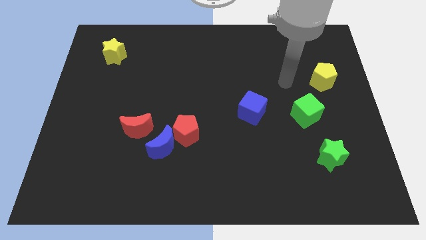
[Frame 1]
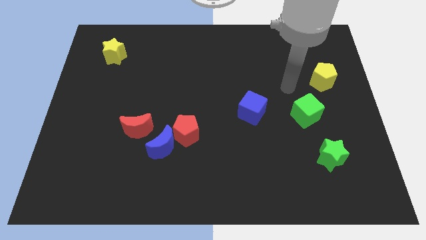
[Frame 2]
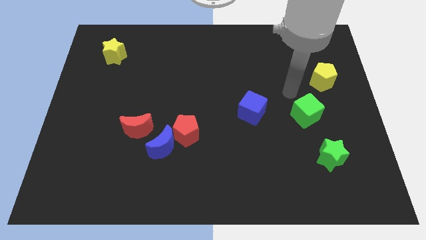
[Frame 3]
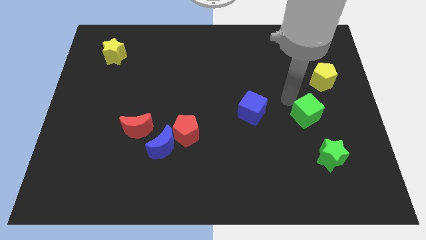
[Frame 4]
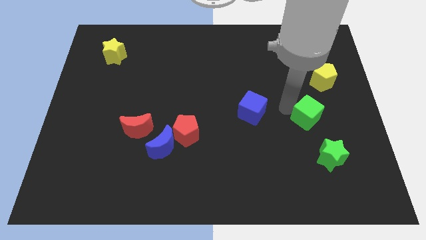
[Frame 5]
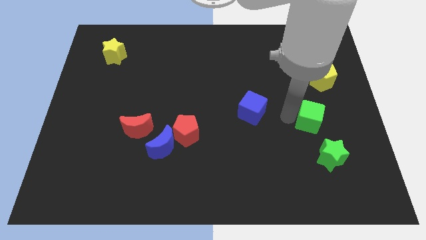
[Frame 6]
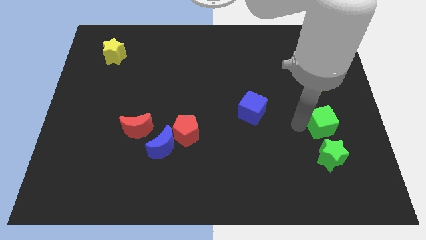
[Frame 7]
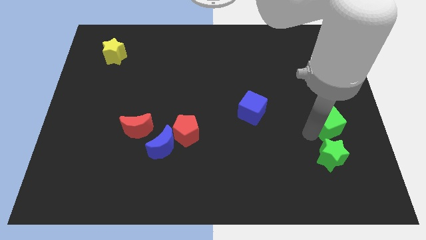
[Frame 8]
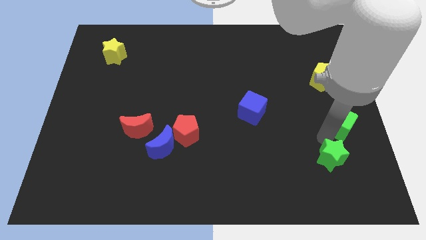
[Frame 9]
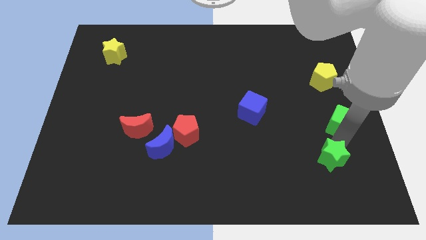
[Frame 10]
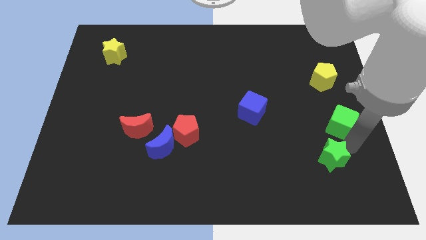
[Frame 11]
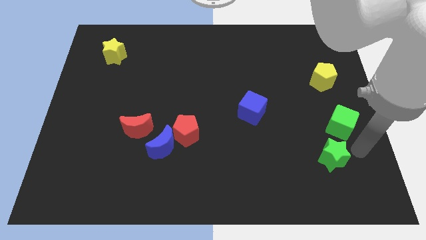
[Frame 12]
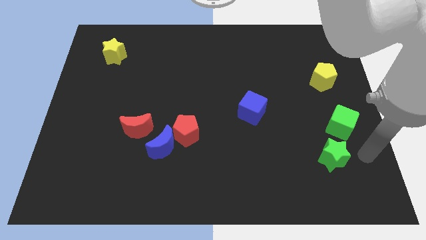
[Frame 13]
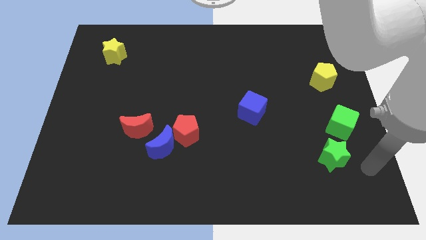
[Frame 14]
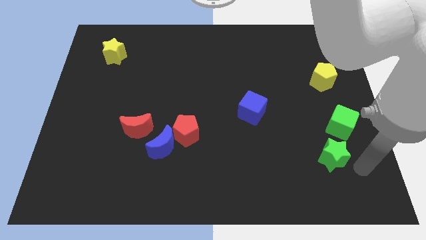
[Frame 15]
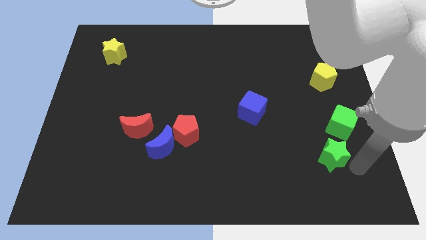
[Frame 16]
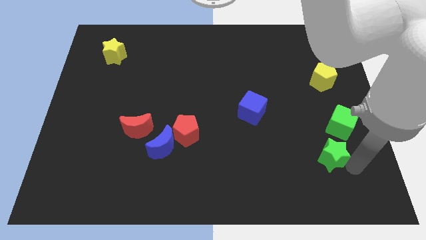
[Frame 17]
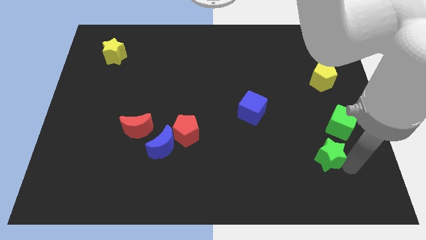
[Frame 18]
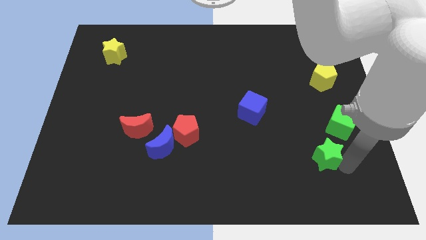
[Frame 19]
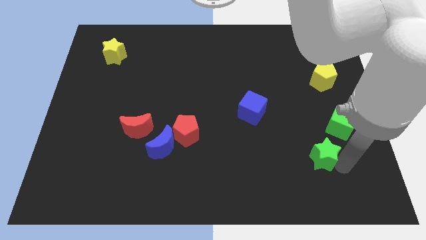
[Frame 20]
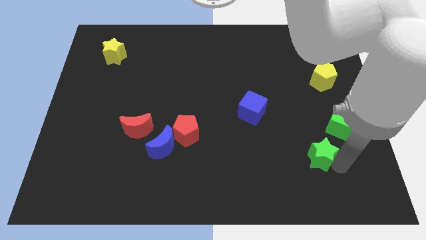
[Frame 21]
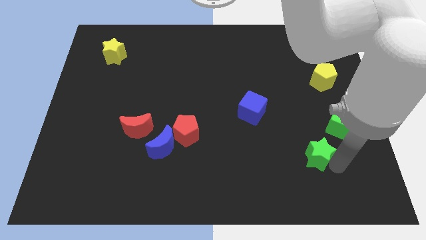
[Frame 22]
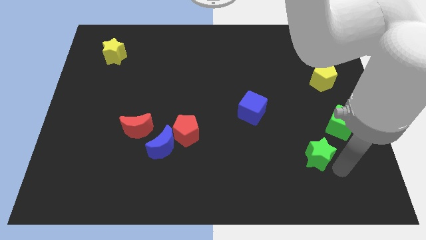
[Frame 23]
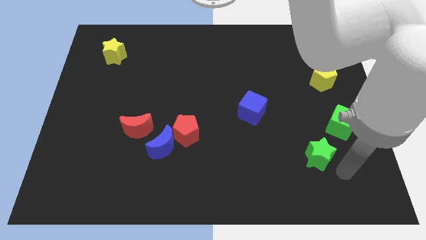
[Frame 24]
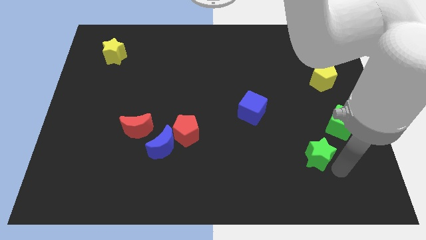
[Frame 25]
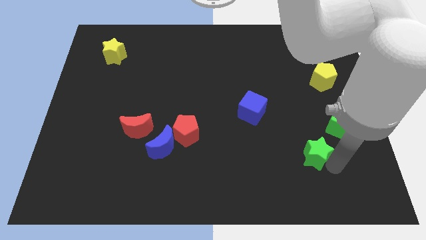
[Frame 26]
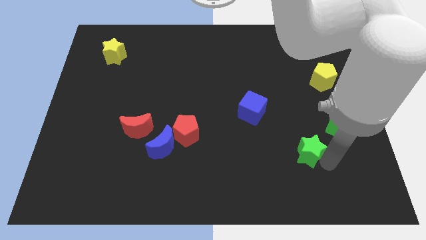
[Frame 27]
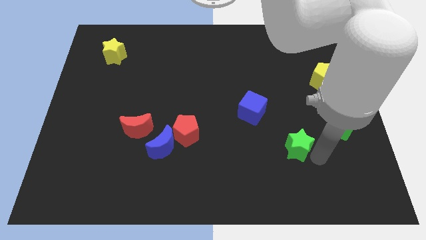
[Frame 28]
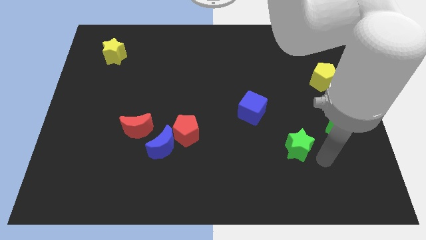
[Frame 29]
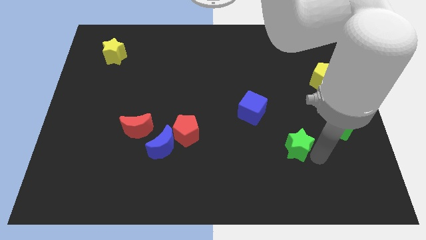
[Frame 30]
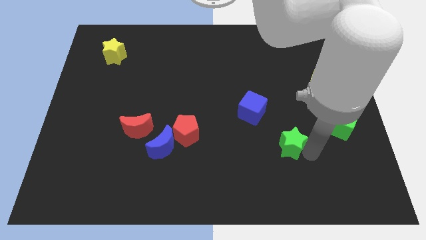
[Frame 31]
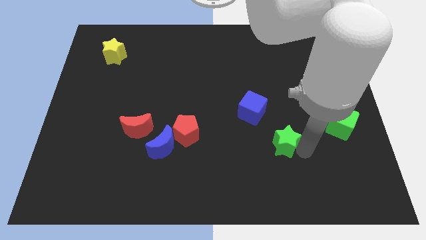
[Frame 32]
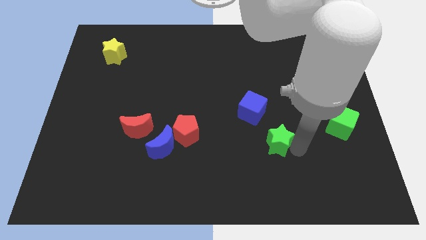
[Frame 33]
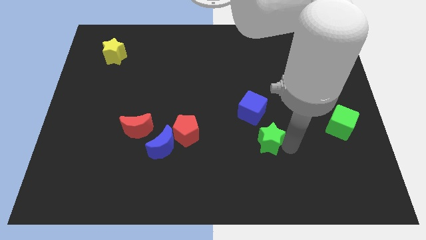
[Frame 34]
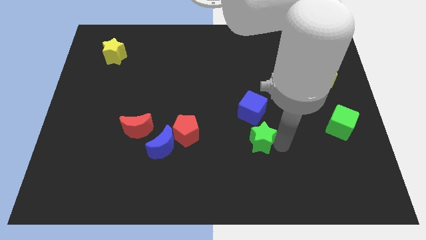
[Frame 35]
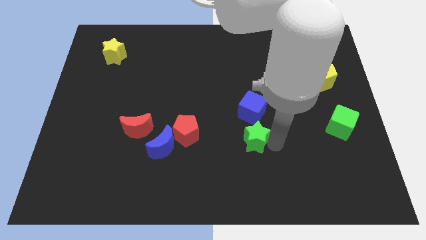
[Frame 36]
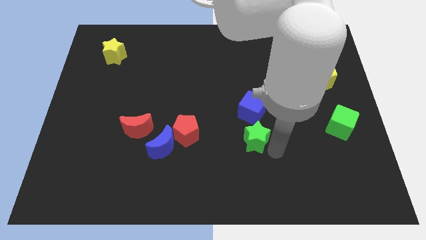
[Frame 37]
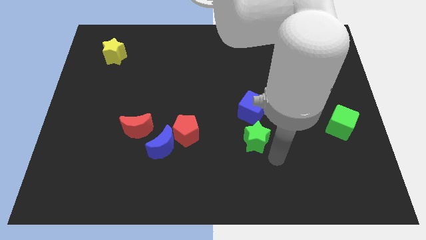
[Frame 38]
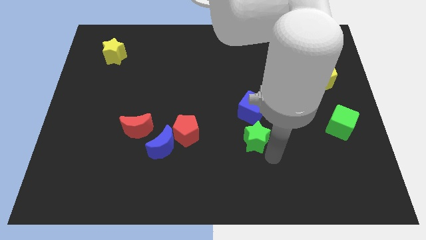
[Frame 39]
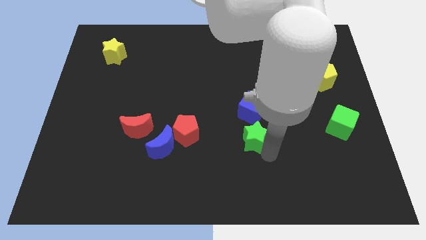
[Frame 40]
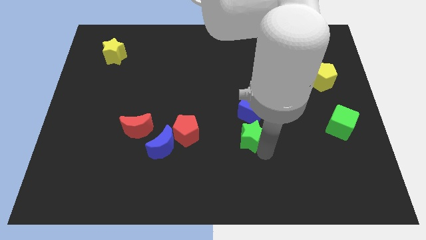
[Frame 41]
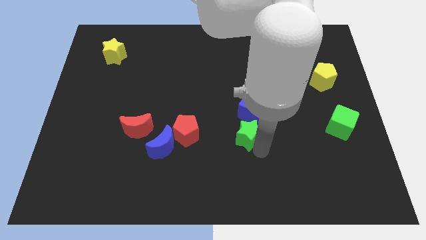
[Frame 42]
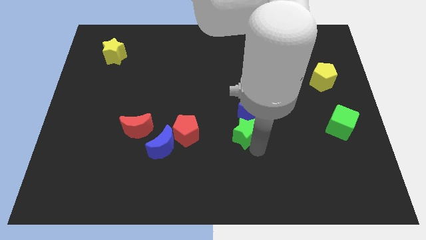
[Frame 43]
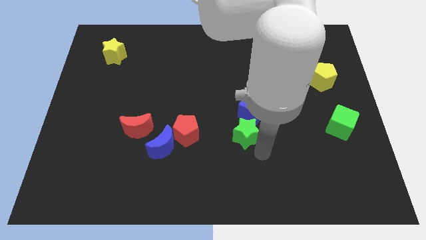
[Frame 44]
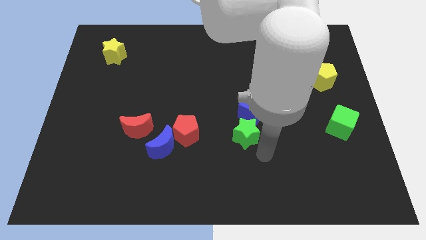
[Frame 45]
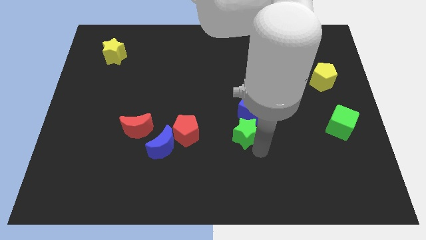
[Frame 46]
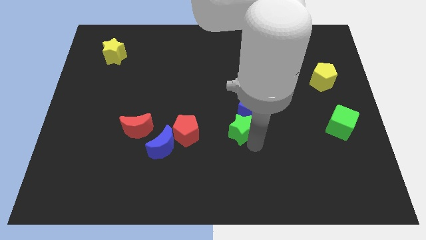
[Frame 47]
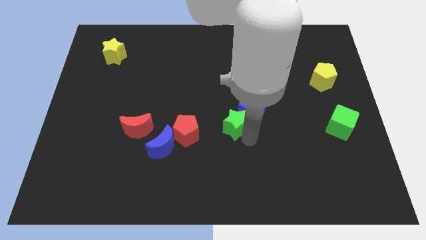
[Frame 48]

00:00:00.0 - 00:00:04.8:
put the green star to the left side of the blue cube

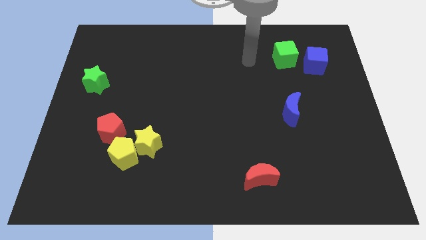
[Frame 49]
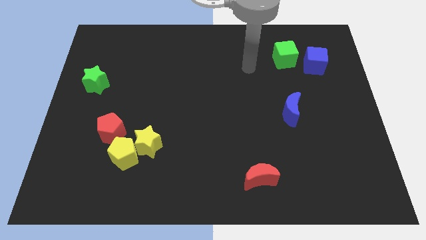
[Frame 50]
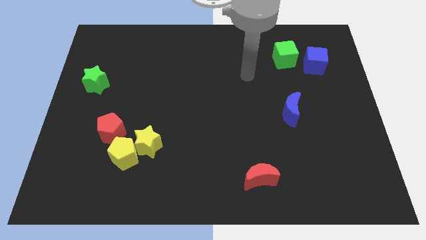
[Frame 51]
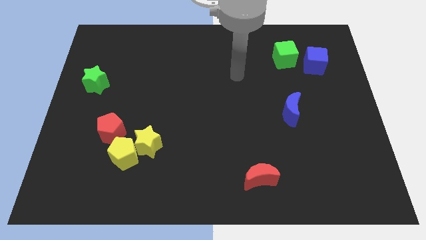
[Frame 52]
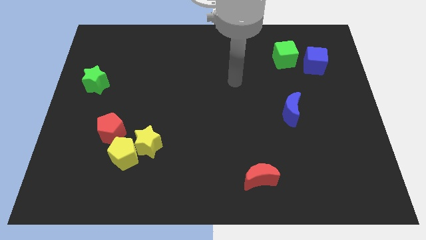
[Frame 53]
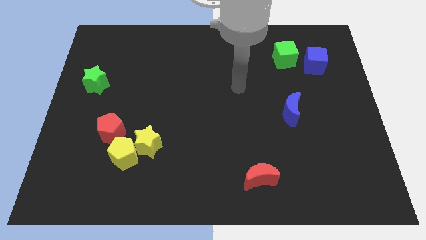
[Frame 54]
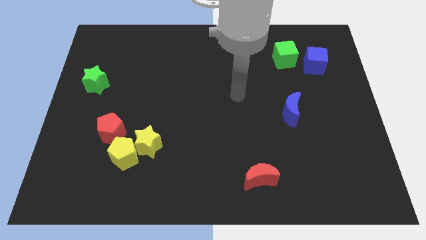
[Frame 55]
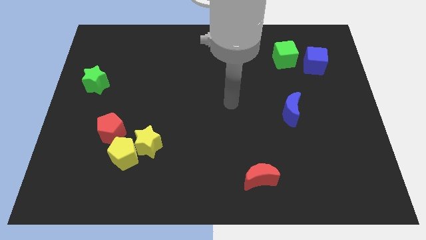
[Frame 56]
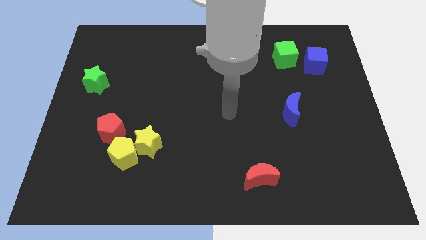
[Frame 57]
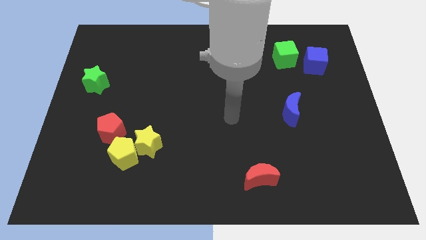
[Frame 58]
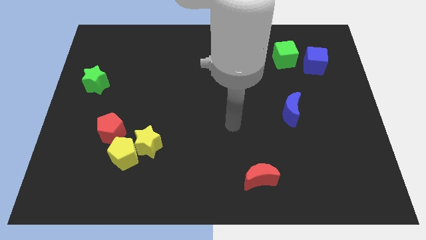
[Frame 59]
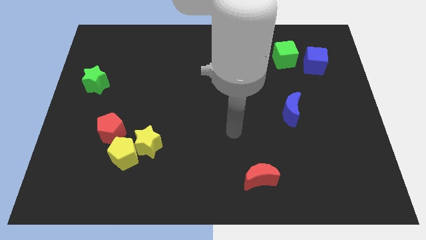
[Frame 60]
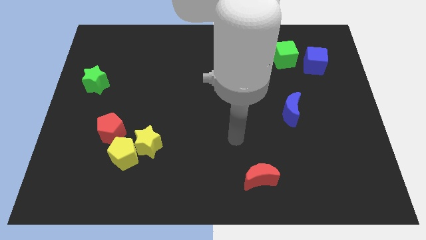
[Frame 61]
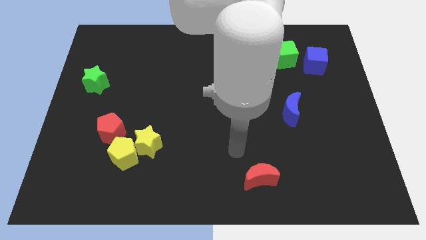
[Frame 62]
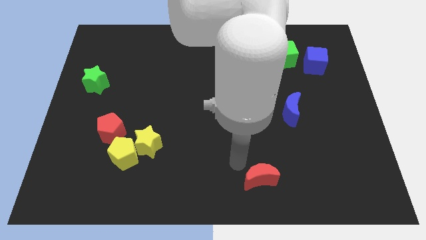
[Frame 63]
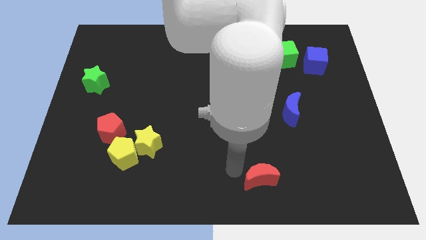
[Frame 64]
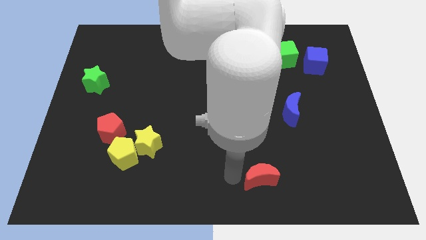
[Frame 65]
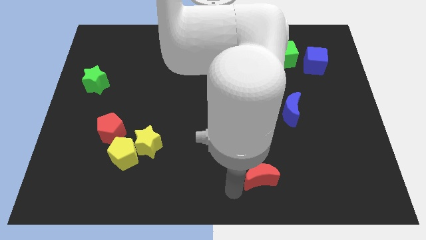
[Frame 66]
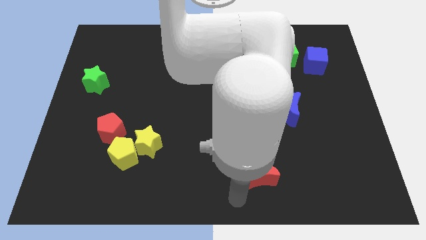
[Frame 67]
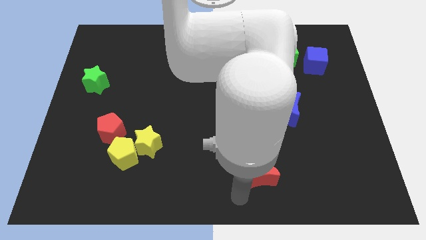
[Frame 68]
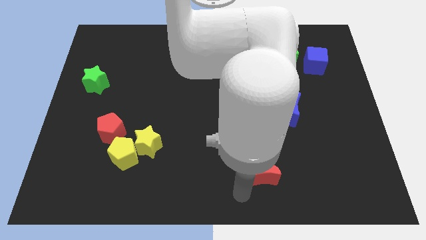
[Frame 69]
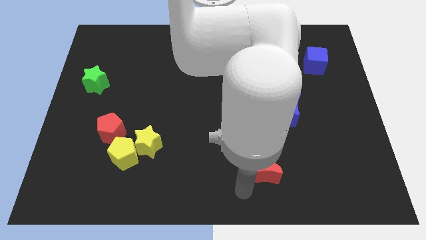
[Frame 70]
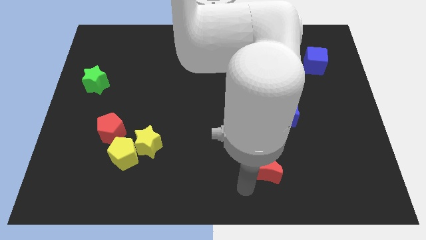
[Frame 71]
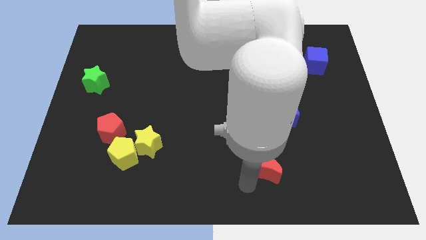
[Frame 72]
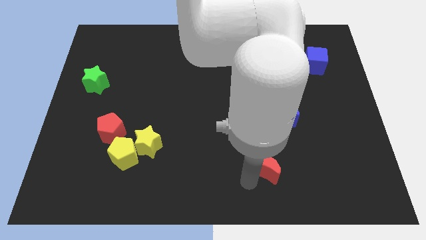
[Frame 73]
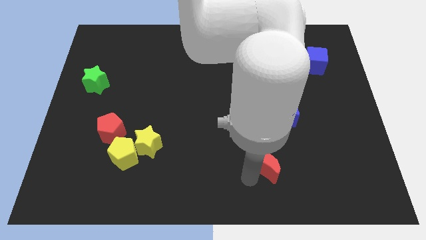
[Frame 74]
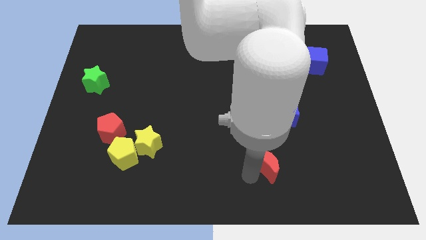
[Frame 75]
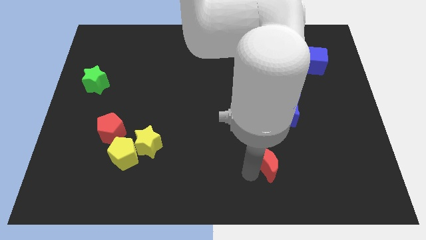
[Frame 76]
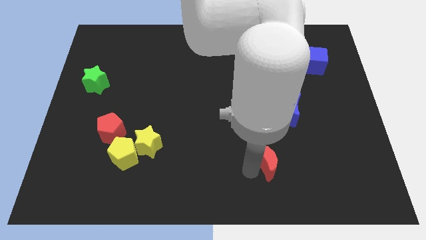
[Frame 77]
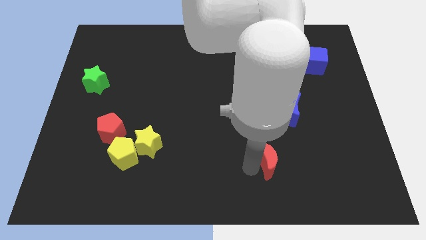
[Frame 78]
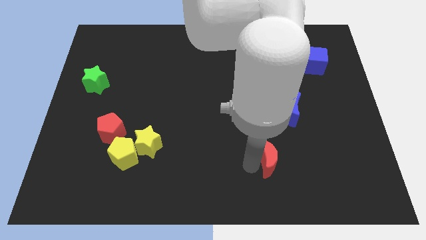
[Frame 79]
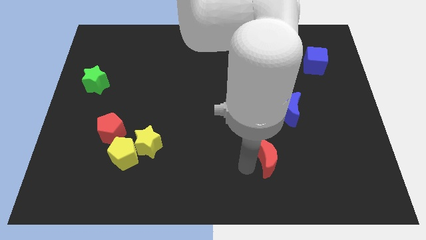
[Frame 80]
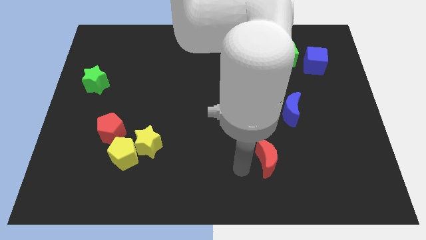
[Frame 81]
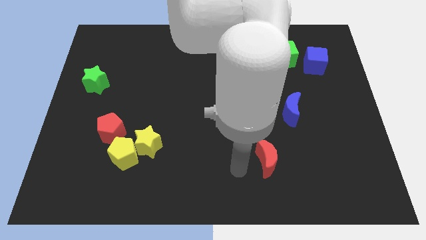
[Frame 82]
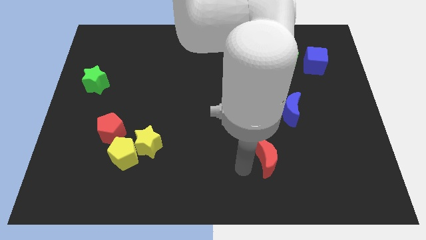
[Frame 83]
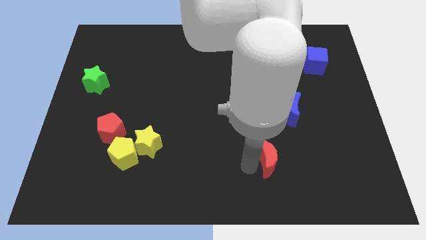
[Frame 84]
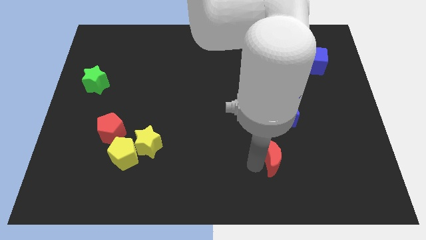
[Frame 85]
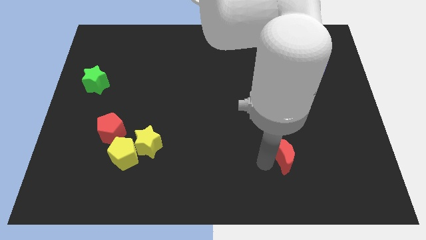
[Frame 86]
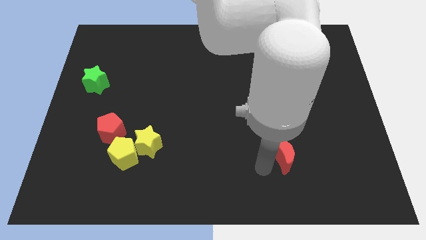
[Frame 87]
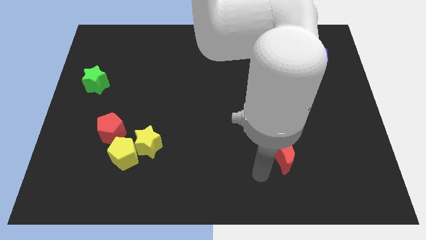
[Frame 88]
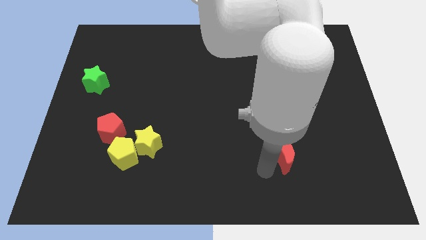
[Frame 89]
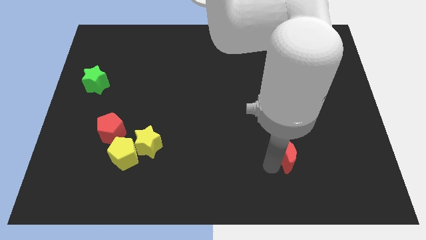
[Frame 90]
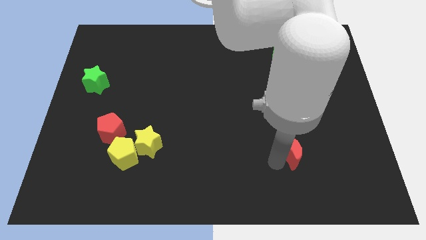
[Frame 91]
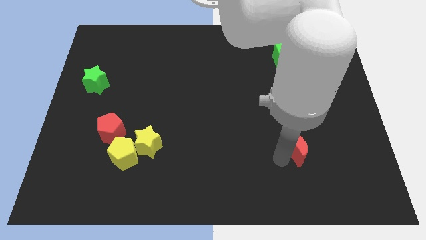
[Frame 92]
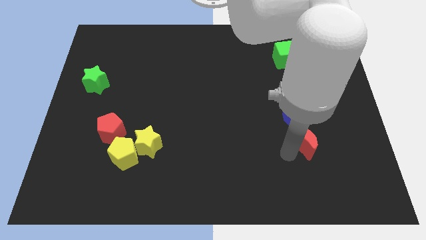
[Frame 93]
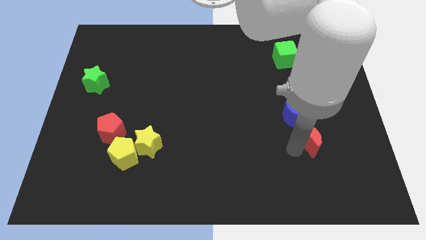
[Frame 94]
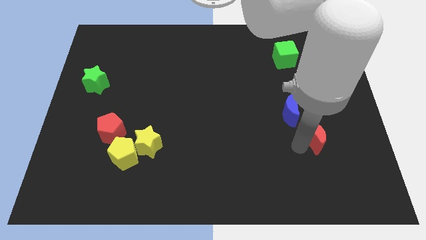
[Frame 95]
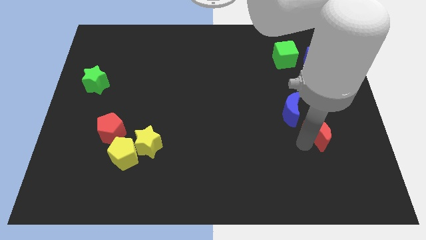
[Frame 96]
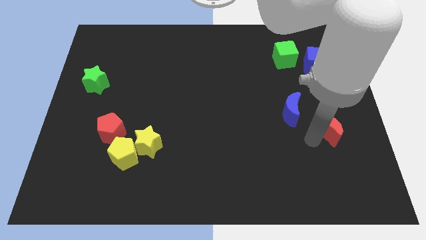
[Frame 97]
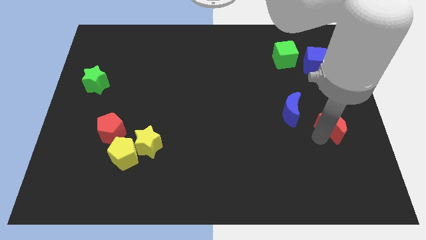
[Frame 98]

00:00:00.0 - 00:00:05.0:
push the red moon to the right of the blue moon
